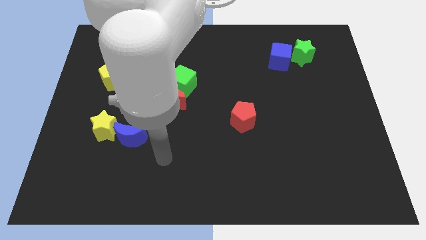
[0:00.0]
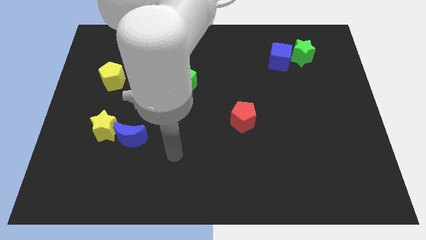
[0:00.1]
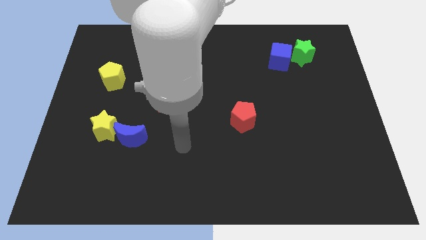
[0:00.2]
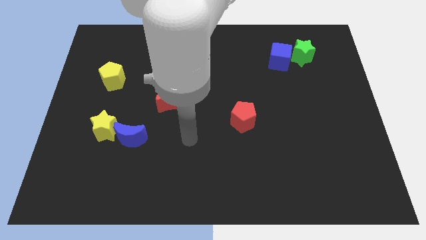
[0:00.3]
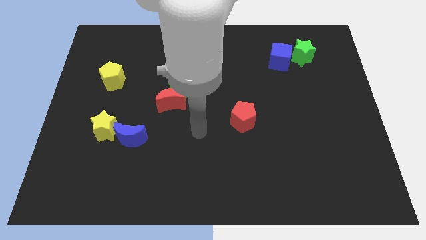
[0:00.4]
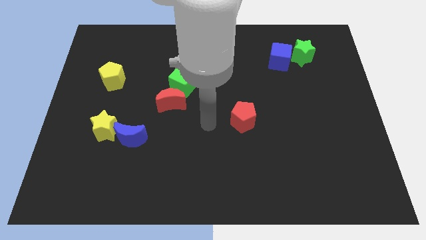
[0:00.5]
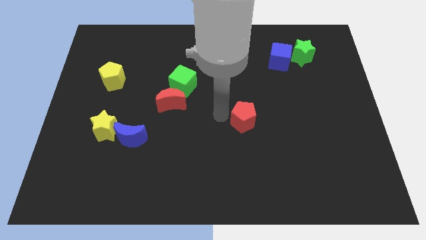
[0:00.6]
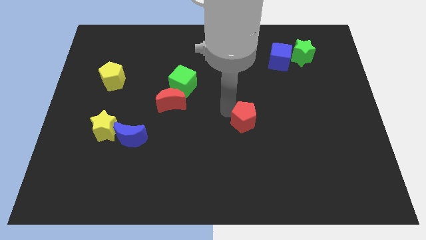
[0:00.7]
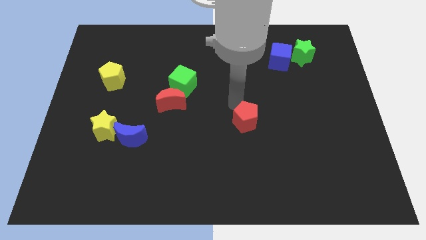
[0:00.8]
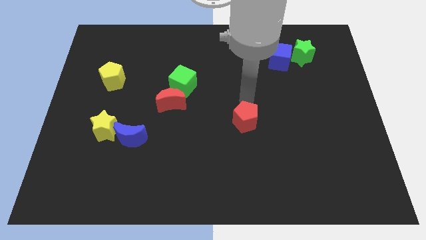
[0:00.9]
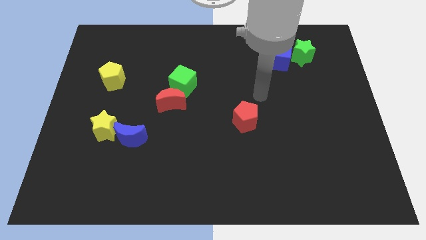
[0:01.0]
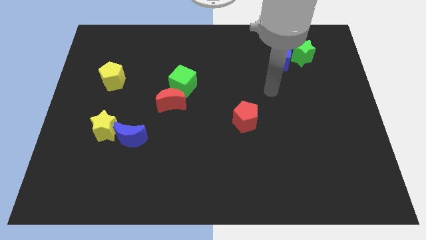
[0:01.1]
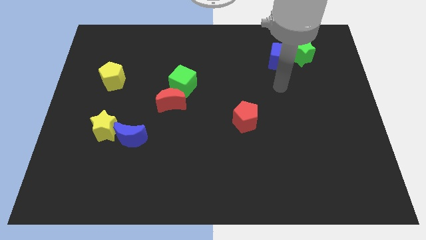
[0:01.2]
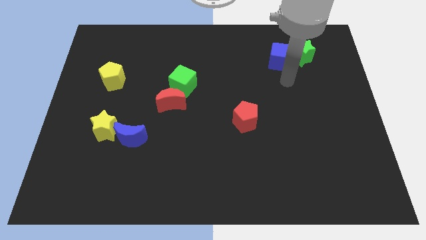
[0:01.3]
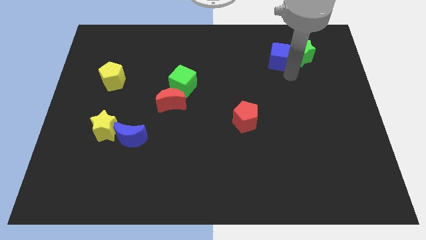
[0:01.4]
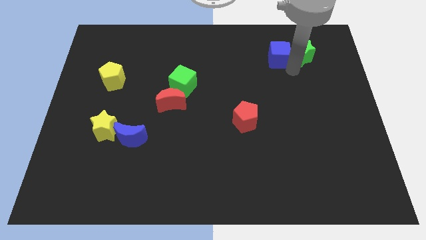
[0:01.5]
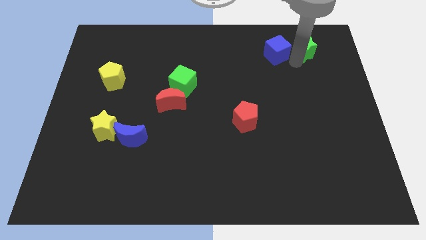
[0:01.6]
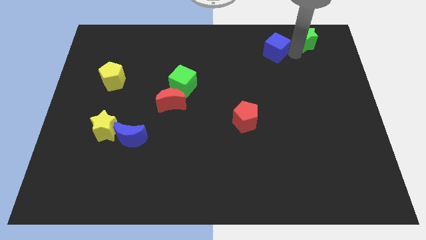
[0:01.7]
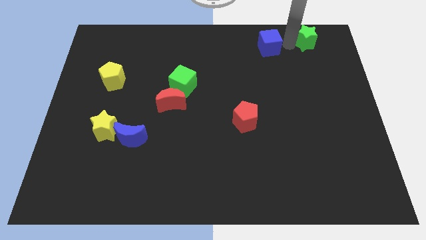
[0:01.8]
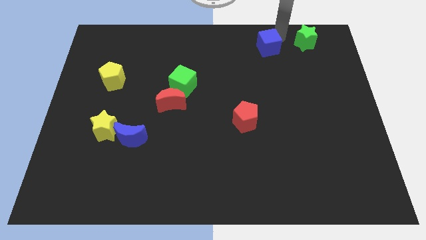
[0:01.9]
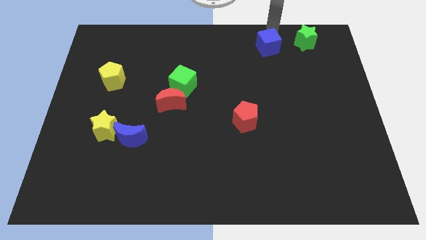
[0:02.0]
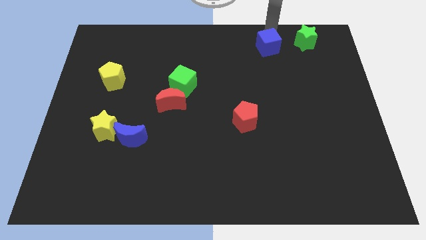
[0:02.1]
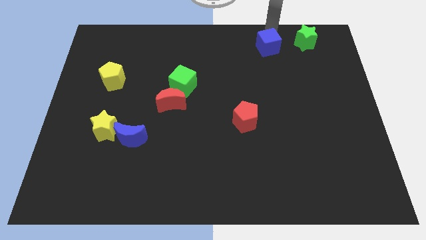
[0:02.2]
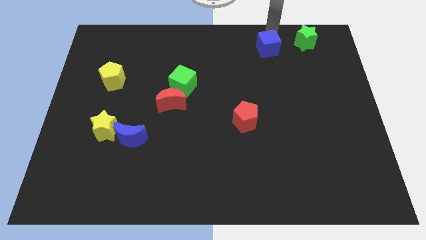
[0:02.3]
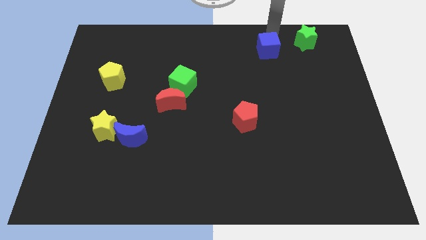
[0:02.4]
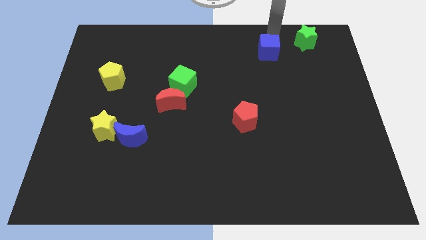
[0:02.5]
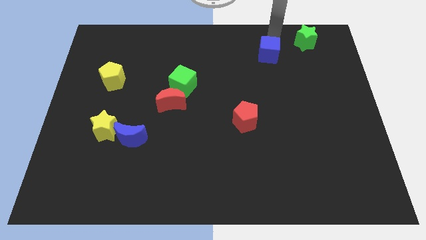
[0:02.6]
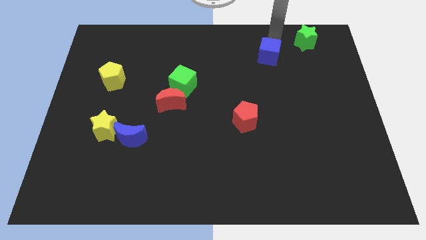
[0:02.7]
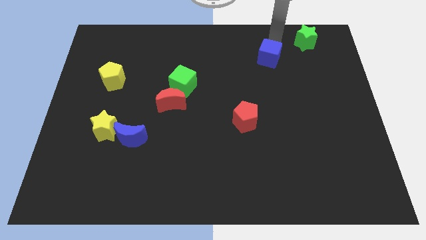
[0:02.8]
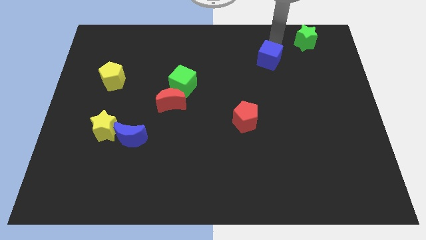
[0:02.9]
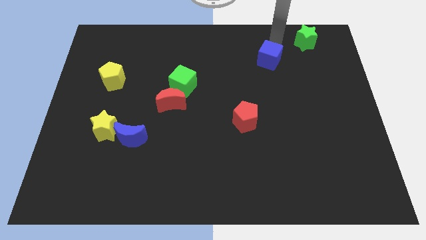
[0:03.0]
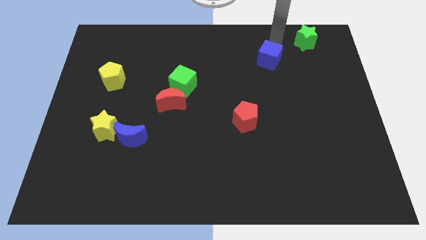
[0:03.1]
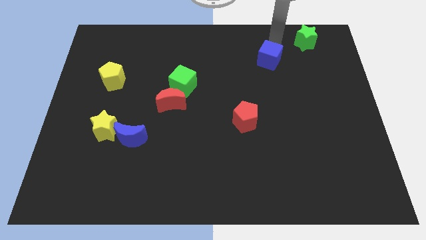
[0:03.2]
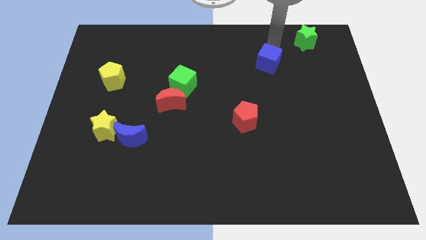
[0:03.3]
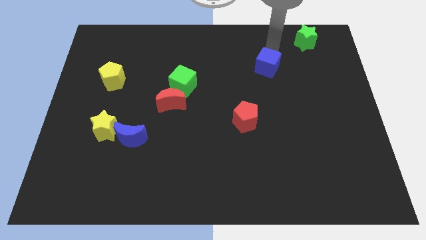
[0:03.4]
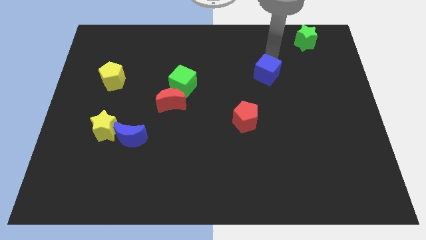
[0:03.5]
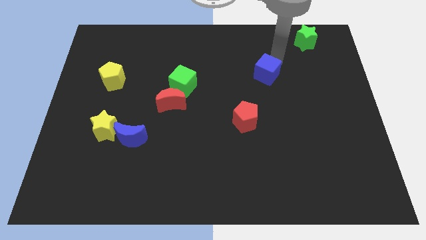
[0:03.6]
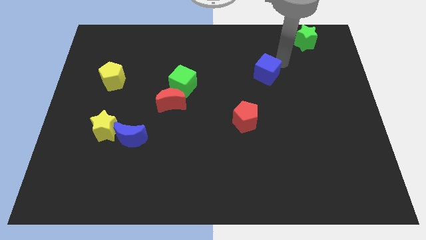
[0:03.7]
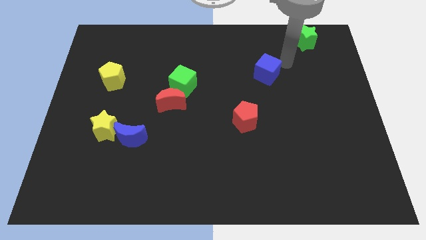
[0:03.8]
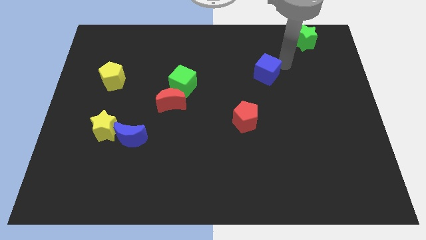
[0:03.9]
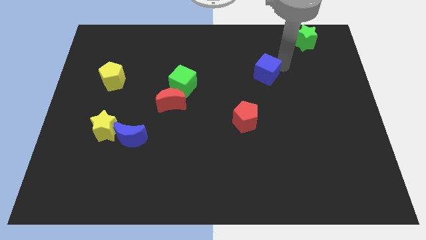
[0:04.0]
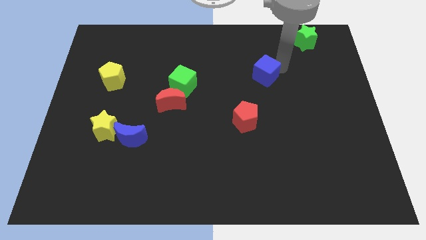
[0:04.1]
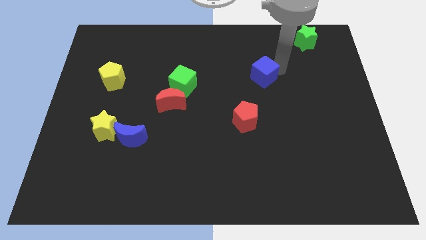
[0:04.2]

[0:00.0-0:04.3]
move the blue cube diagonally down and left a little bit

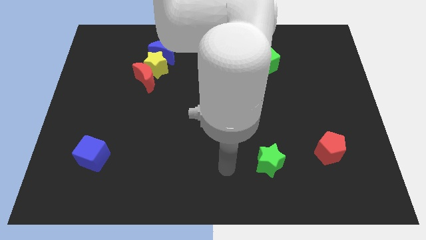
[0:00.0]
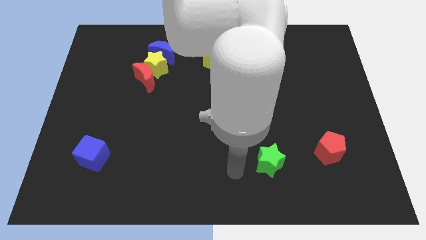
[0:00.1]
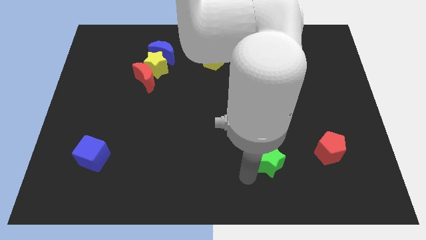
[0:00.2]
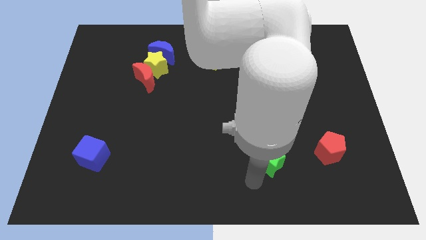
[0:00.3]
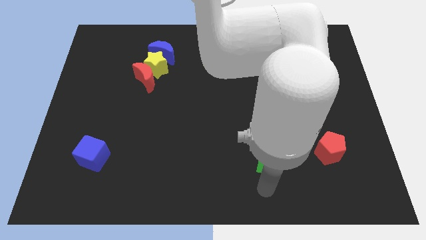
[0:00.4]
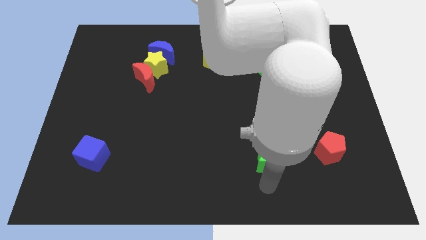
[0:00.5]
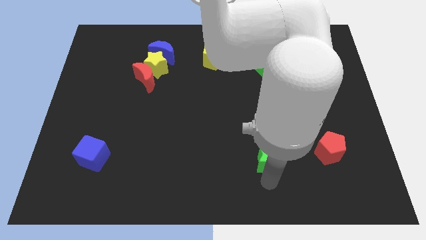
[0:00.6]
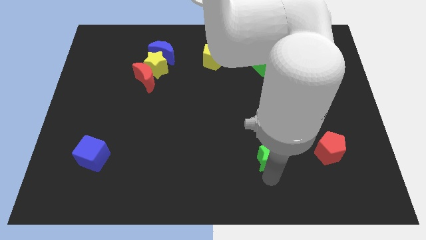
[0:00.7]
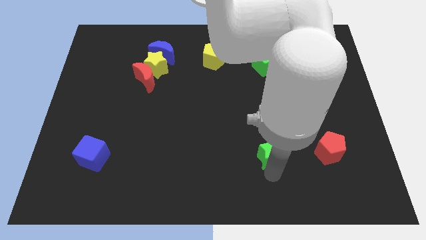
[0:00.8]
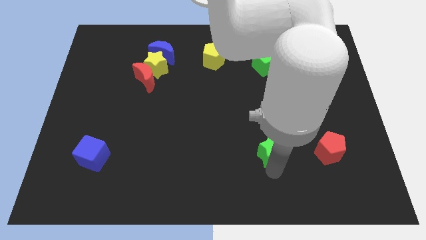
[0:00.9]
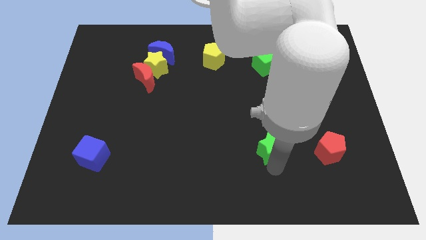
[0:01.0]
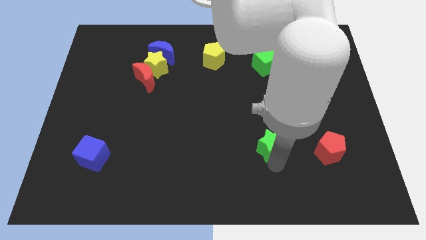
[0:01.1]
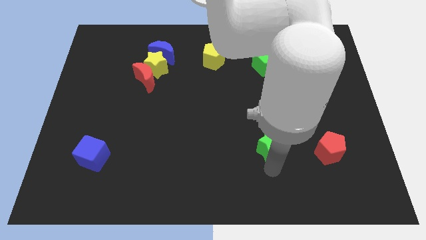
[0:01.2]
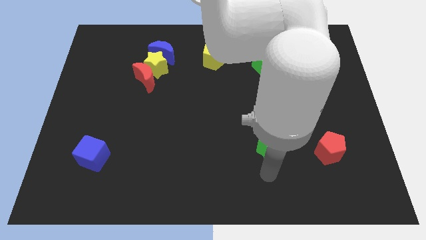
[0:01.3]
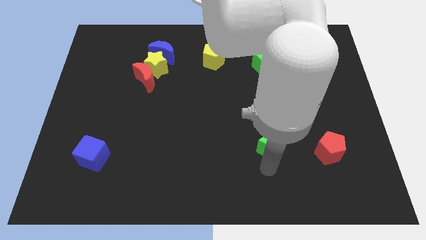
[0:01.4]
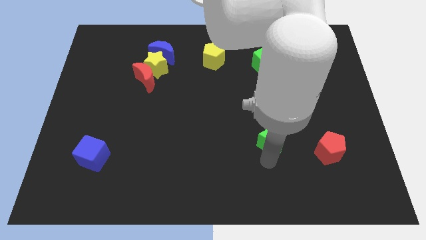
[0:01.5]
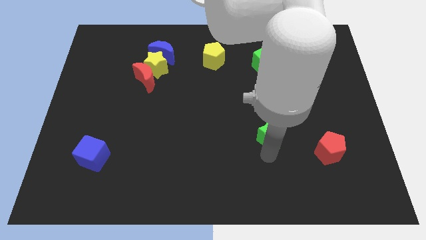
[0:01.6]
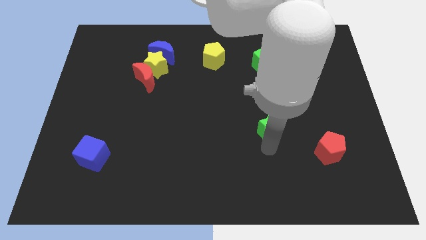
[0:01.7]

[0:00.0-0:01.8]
push the green star up a bit

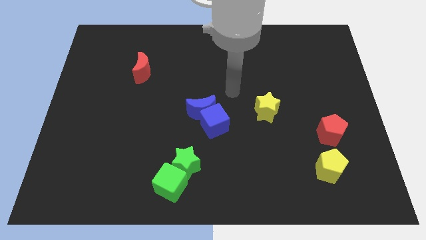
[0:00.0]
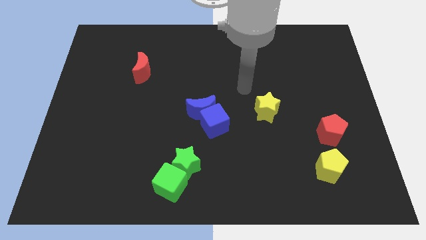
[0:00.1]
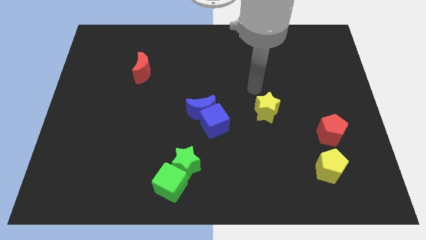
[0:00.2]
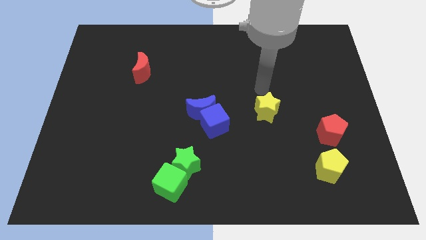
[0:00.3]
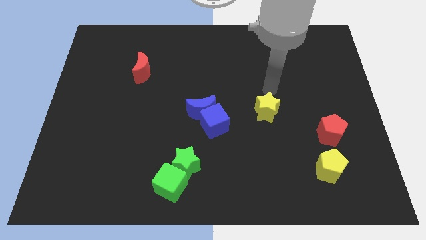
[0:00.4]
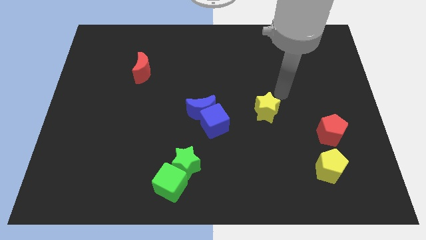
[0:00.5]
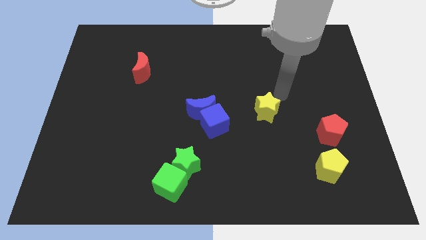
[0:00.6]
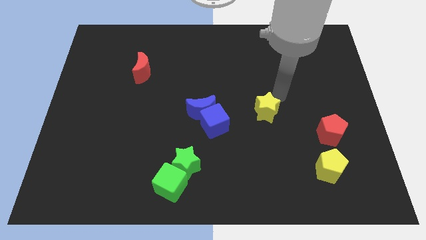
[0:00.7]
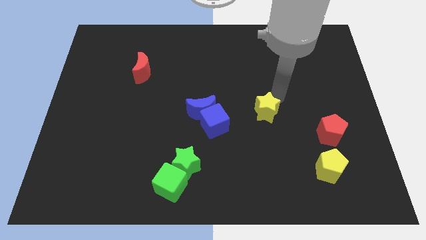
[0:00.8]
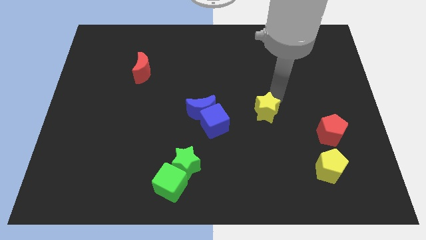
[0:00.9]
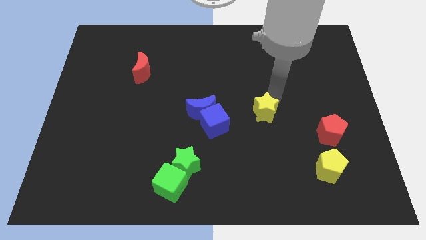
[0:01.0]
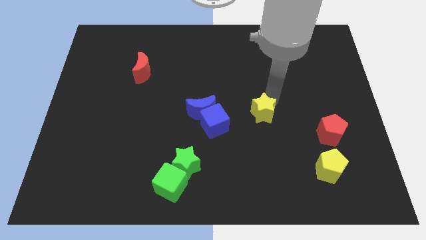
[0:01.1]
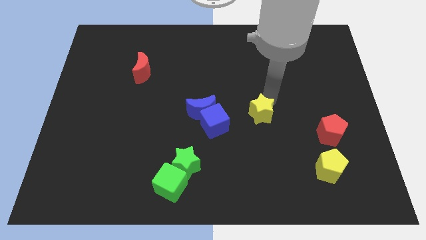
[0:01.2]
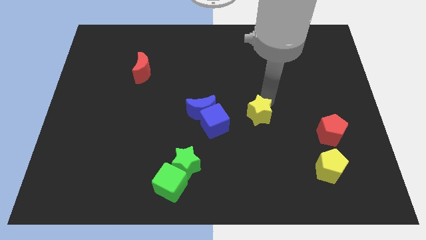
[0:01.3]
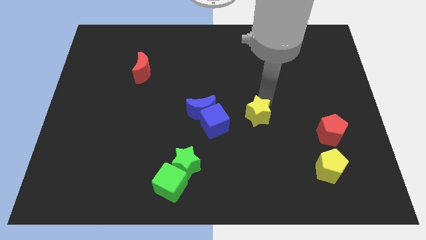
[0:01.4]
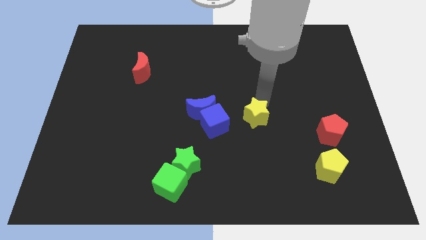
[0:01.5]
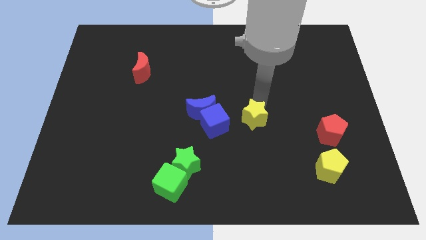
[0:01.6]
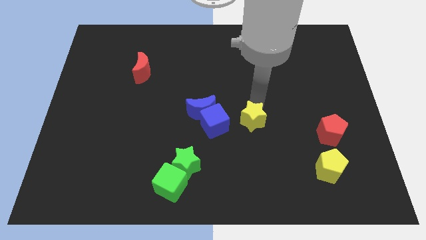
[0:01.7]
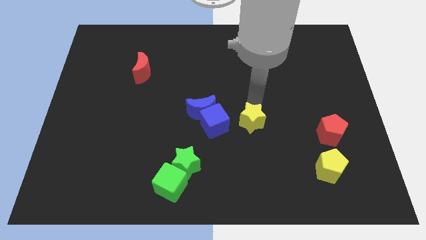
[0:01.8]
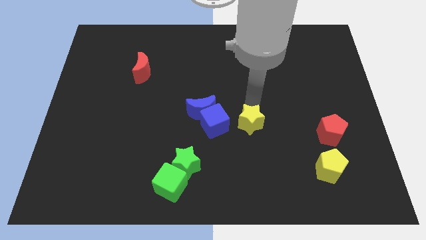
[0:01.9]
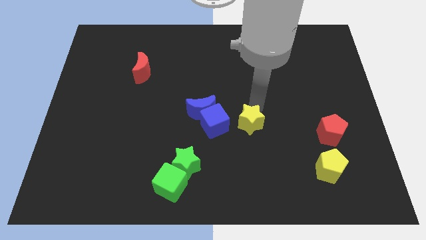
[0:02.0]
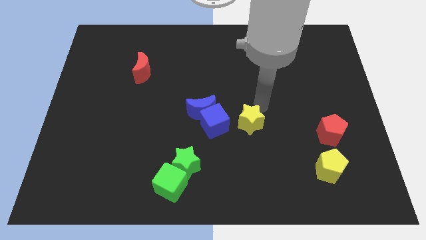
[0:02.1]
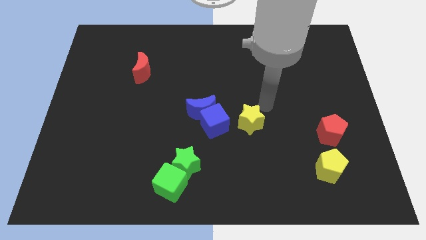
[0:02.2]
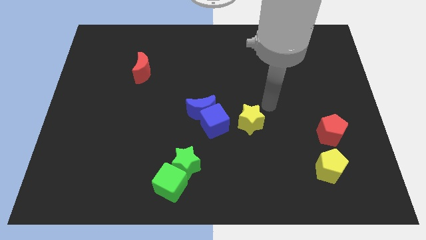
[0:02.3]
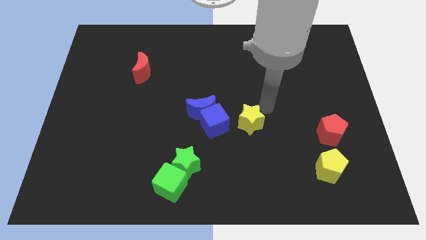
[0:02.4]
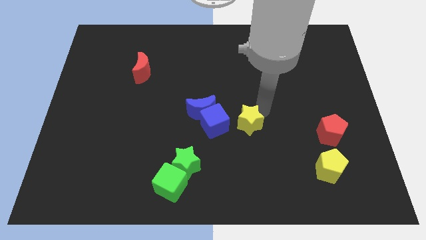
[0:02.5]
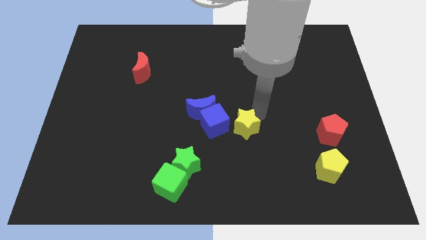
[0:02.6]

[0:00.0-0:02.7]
slide the yellow star downwards and to the left slightly
